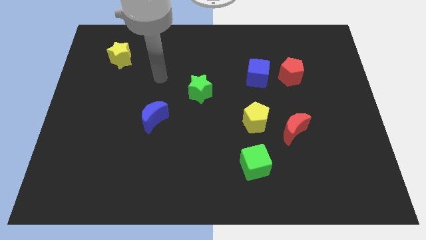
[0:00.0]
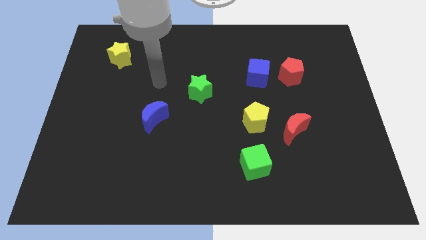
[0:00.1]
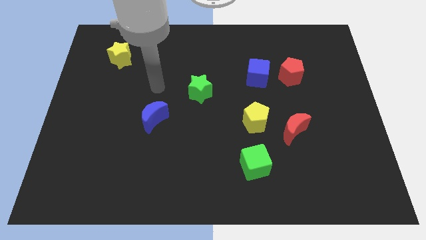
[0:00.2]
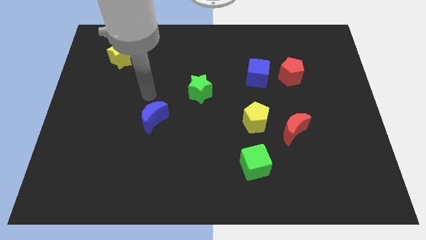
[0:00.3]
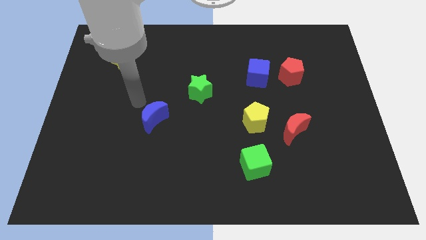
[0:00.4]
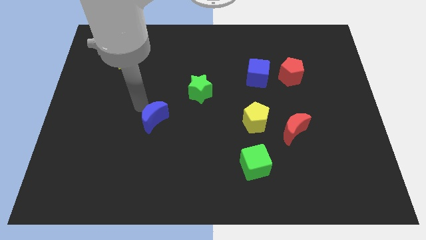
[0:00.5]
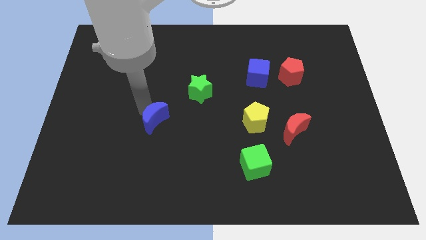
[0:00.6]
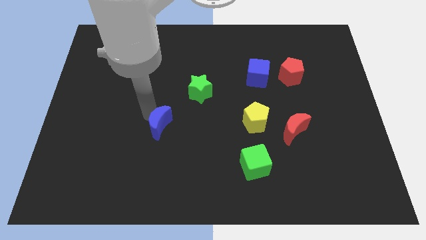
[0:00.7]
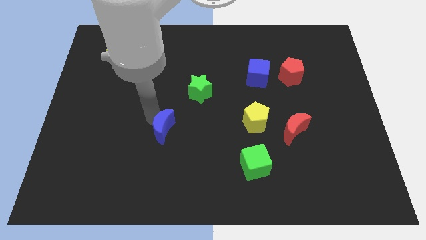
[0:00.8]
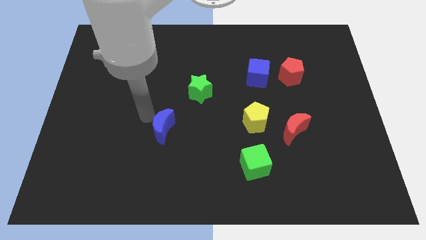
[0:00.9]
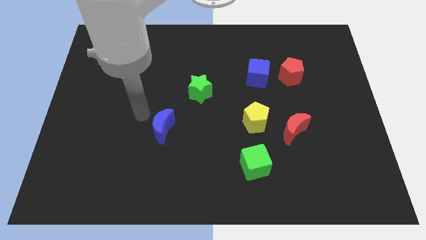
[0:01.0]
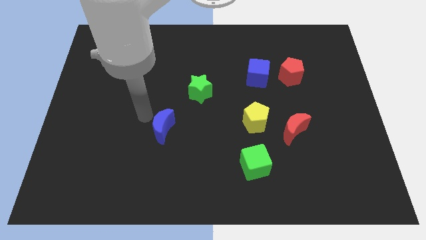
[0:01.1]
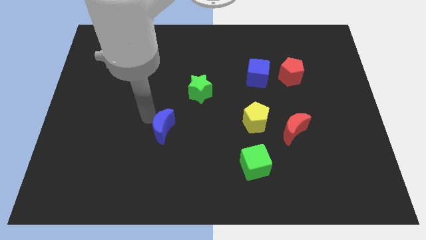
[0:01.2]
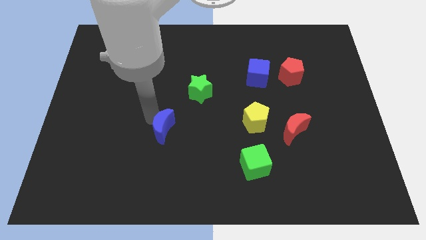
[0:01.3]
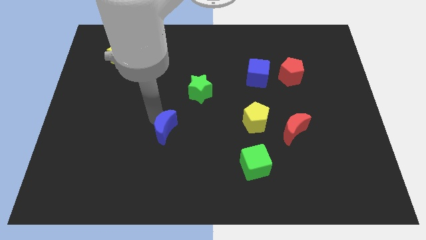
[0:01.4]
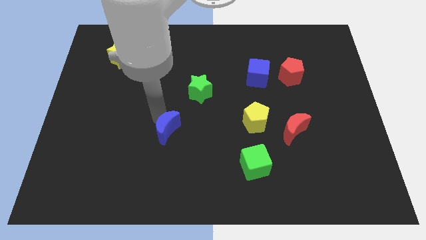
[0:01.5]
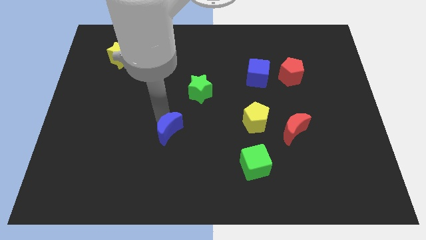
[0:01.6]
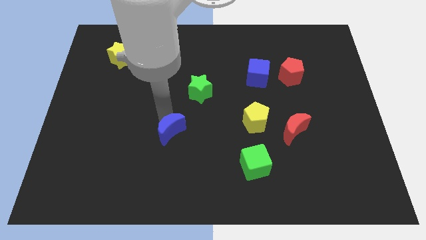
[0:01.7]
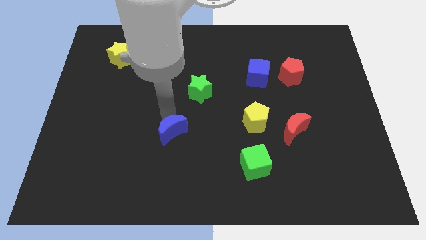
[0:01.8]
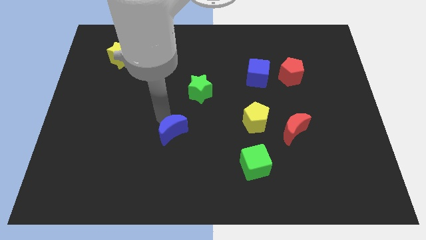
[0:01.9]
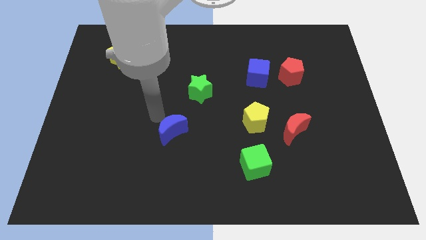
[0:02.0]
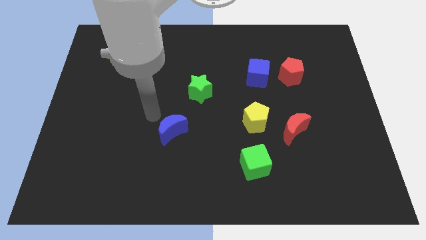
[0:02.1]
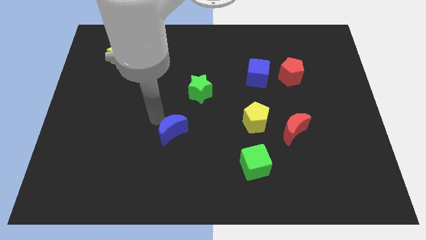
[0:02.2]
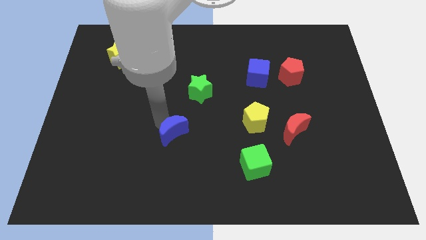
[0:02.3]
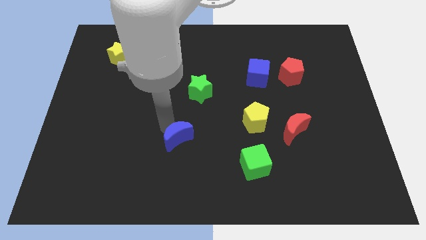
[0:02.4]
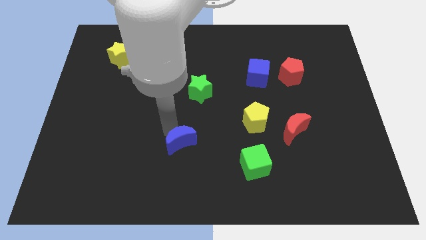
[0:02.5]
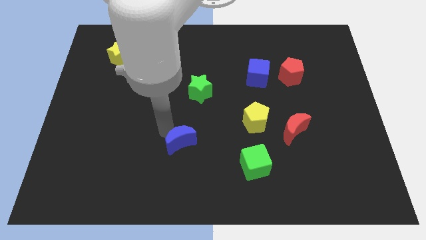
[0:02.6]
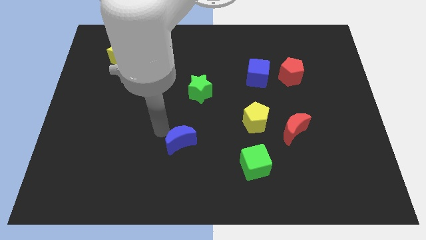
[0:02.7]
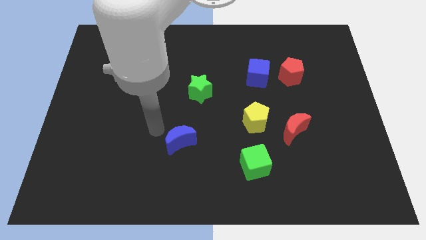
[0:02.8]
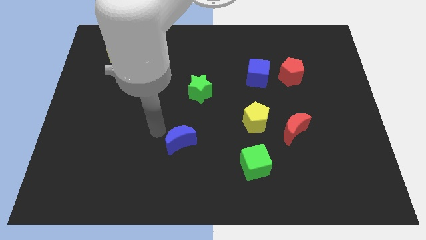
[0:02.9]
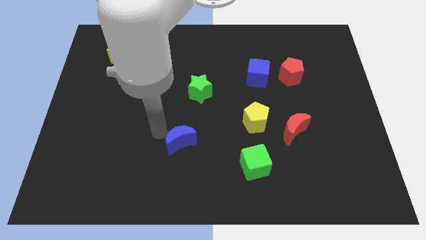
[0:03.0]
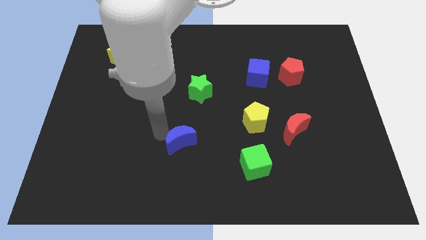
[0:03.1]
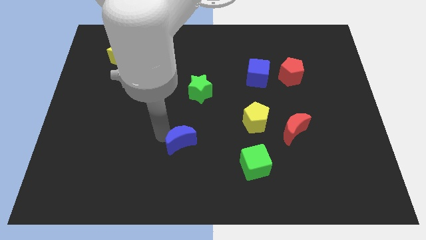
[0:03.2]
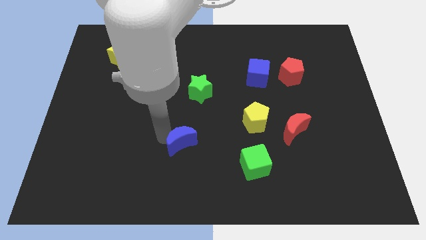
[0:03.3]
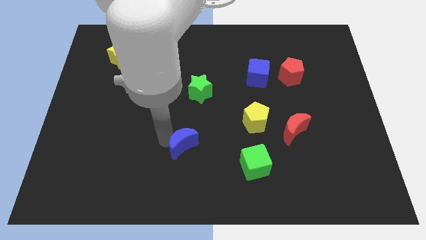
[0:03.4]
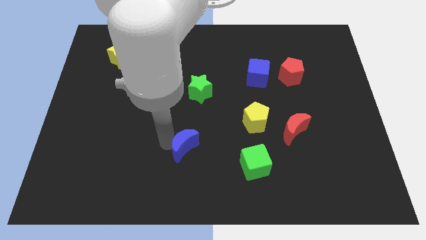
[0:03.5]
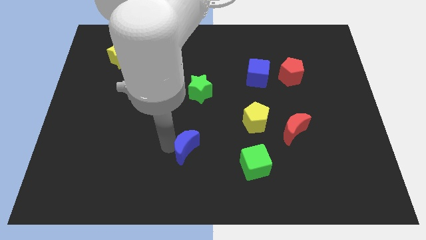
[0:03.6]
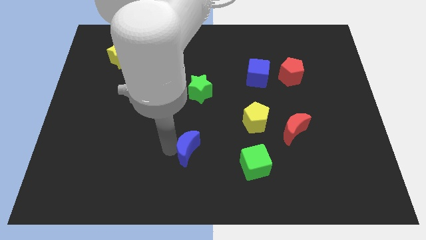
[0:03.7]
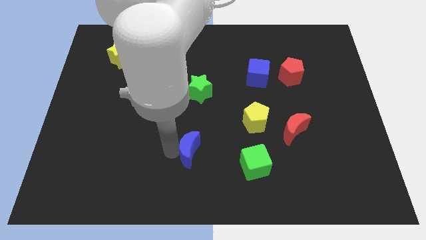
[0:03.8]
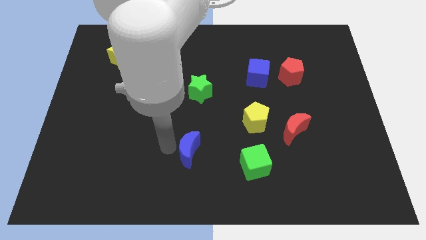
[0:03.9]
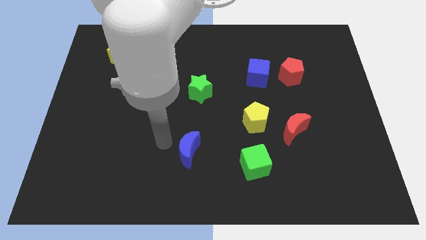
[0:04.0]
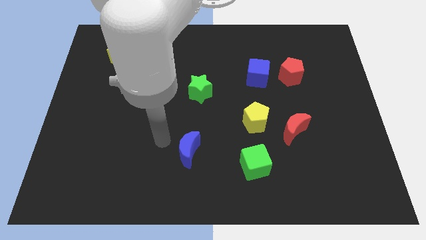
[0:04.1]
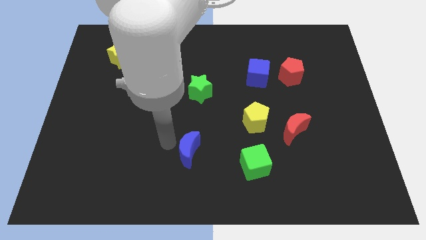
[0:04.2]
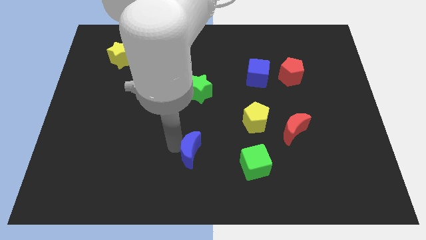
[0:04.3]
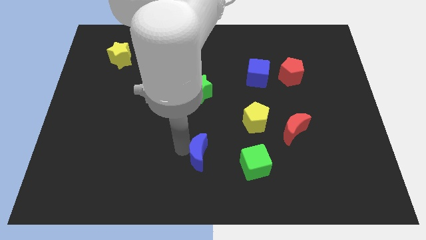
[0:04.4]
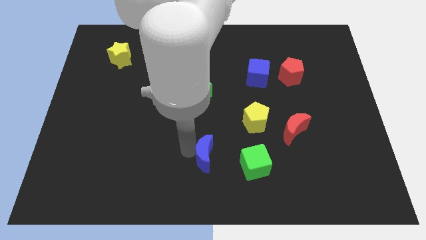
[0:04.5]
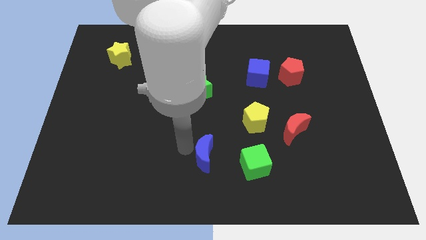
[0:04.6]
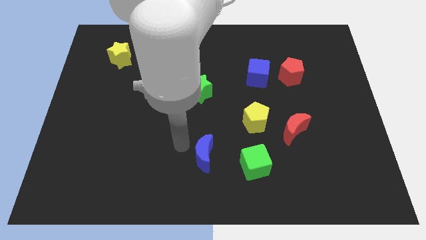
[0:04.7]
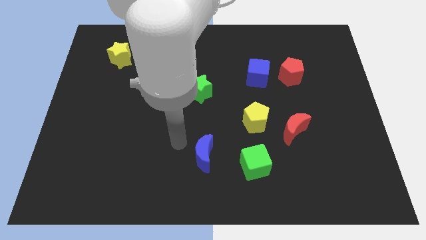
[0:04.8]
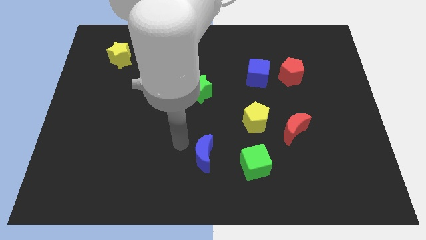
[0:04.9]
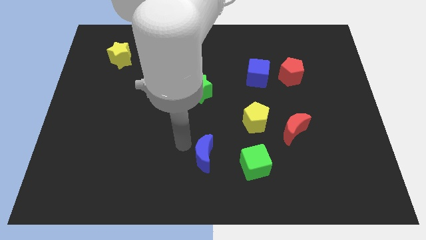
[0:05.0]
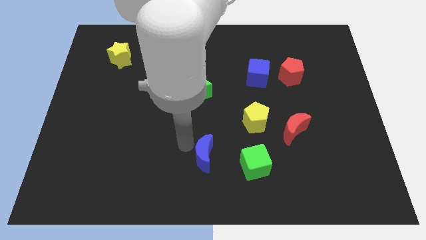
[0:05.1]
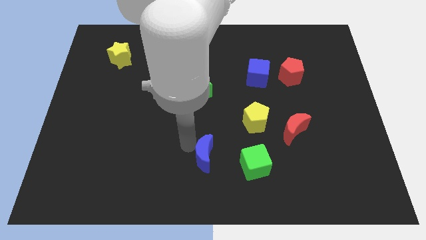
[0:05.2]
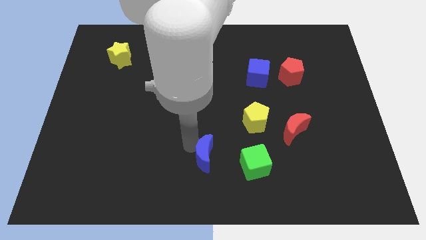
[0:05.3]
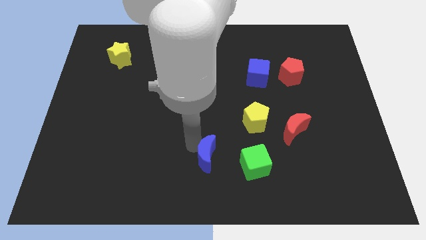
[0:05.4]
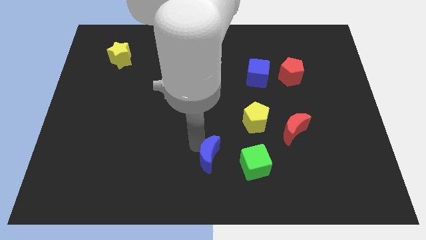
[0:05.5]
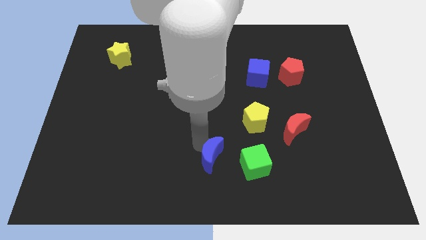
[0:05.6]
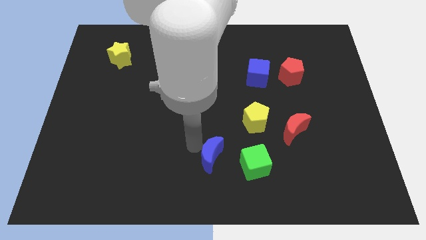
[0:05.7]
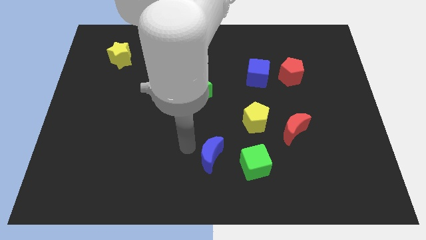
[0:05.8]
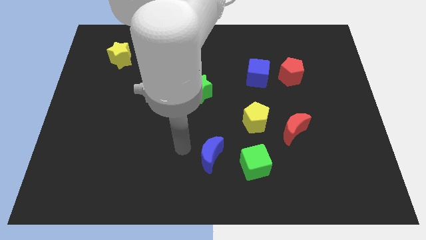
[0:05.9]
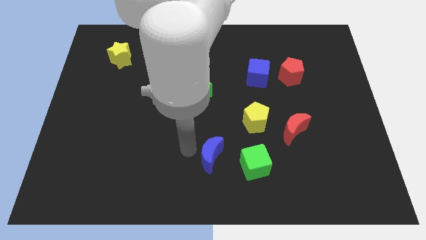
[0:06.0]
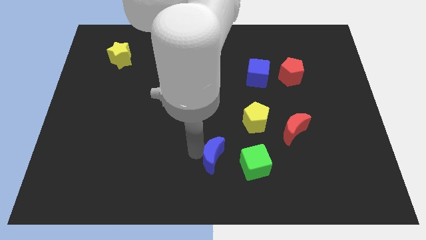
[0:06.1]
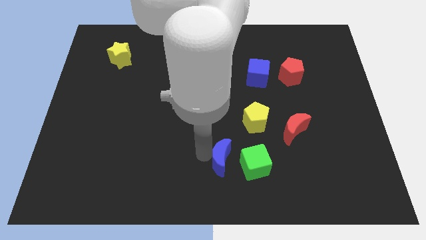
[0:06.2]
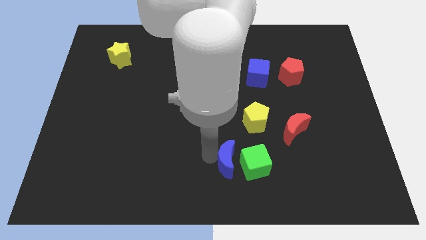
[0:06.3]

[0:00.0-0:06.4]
slide the blue moon towards the green cube

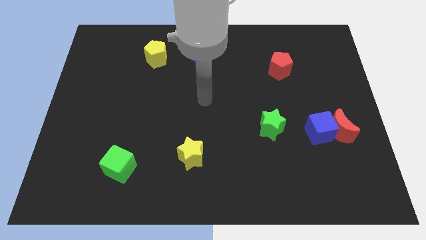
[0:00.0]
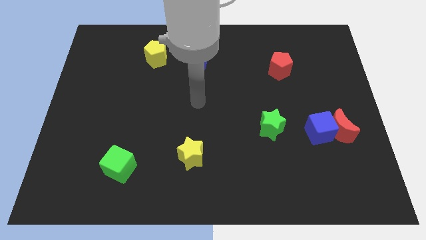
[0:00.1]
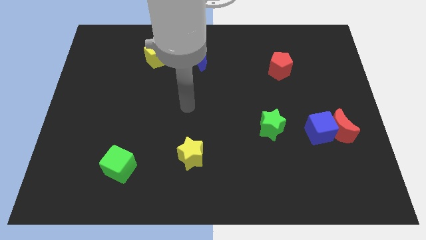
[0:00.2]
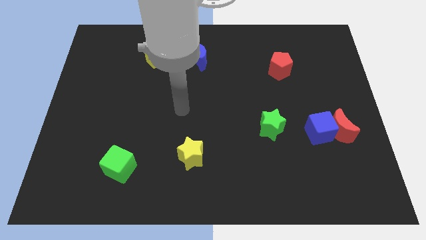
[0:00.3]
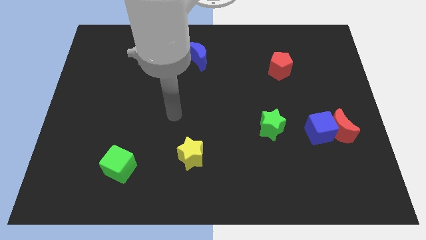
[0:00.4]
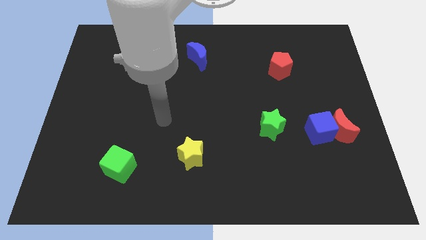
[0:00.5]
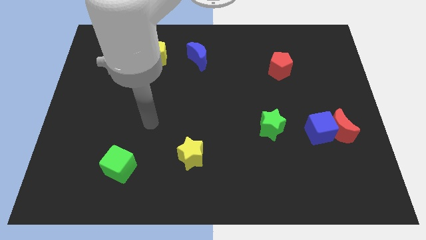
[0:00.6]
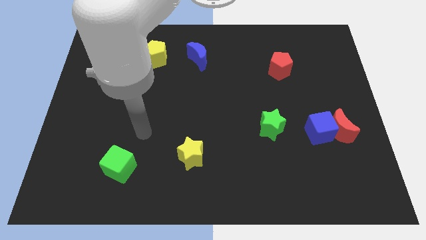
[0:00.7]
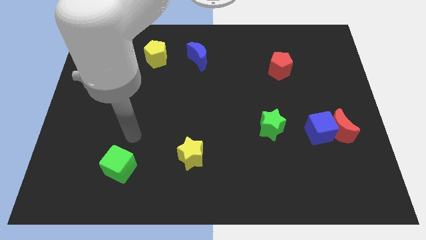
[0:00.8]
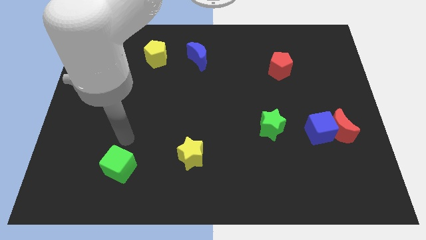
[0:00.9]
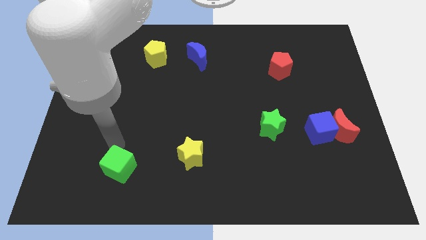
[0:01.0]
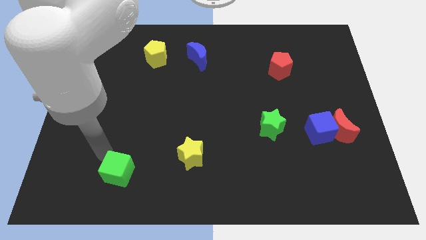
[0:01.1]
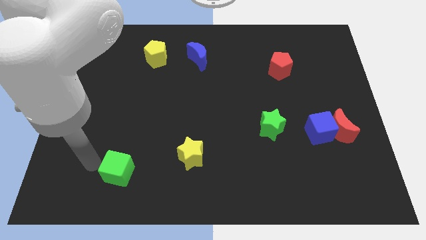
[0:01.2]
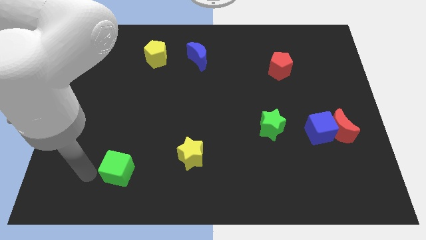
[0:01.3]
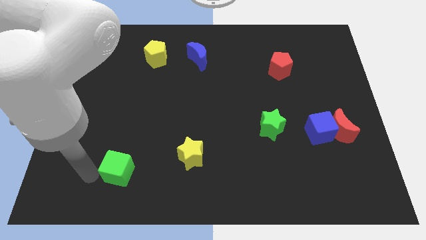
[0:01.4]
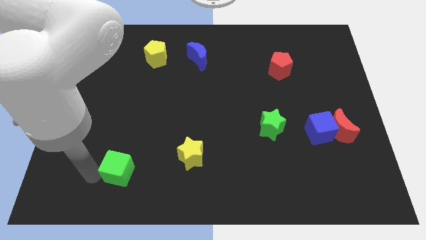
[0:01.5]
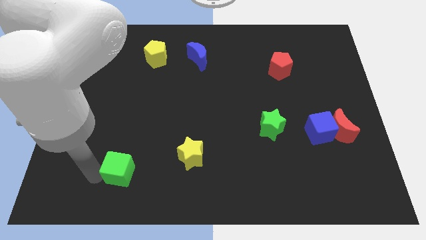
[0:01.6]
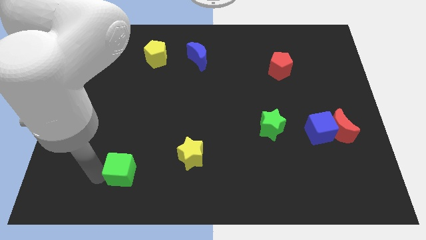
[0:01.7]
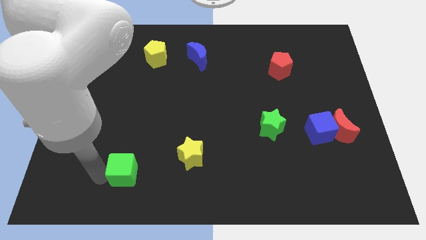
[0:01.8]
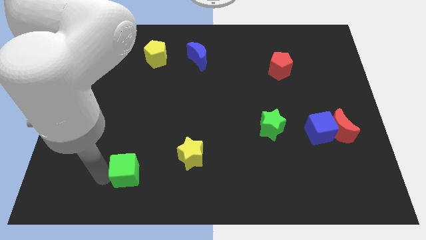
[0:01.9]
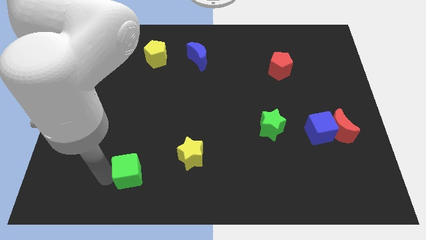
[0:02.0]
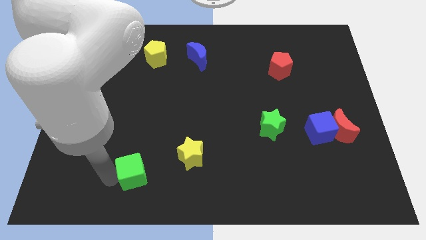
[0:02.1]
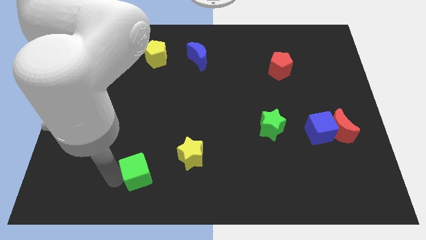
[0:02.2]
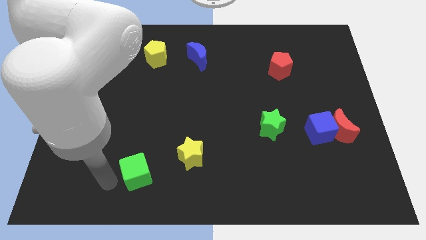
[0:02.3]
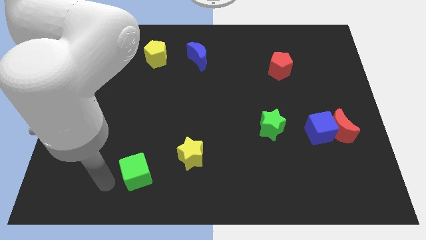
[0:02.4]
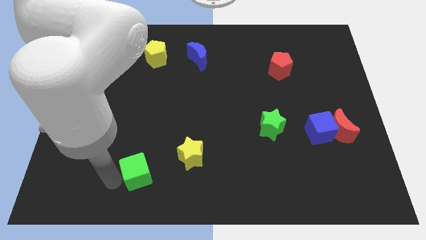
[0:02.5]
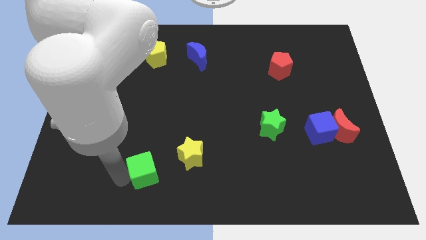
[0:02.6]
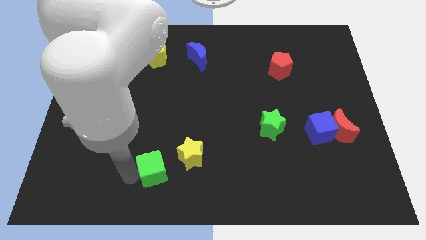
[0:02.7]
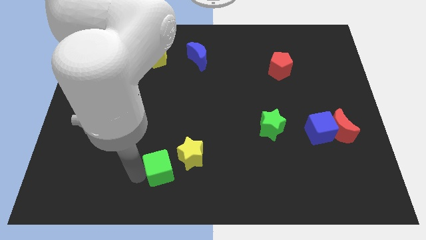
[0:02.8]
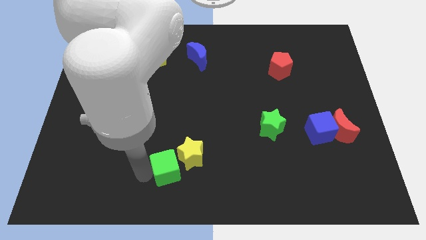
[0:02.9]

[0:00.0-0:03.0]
move the green cube close to the yellow star
